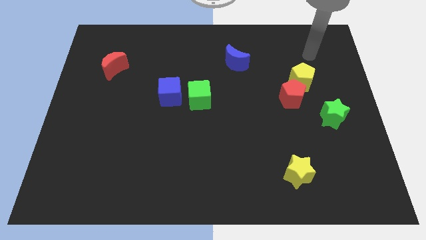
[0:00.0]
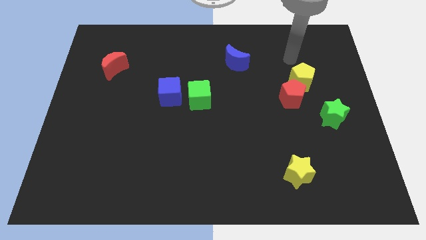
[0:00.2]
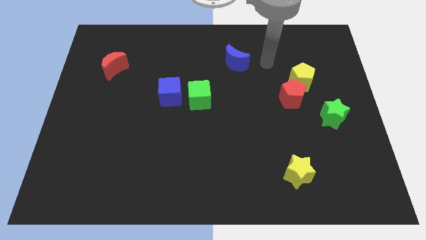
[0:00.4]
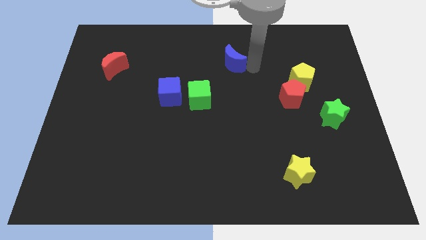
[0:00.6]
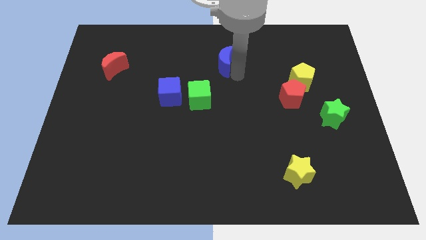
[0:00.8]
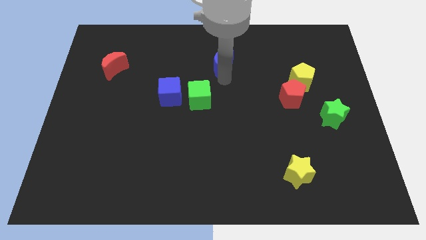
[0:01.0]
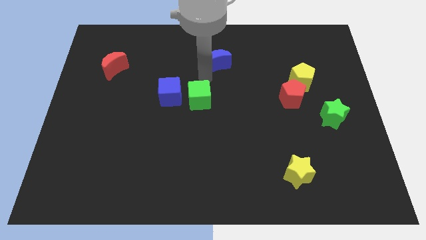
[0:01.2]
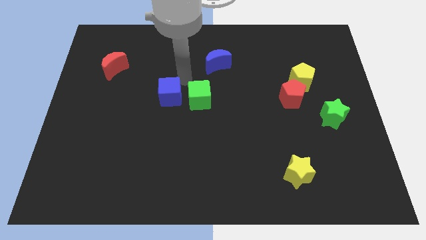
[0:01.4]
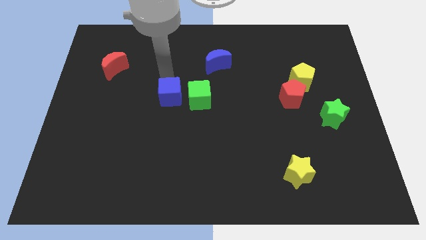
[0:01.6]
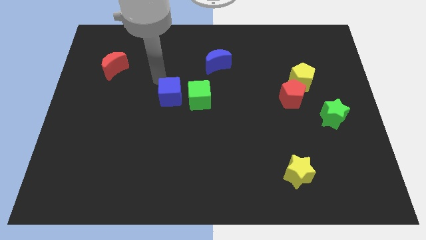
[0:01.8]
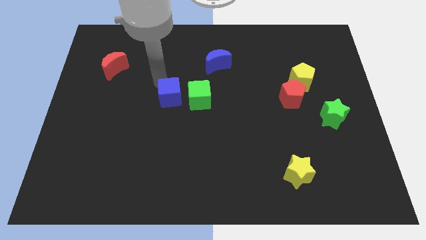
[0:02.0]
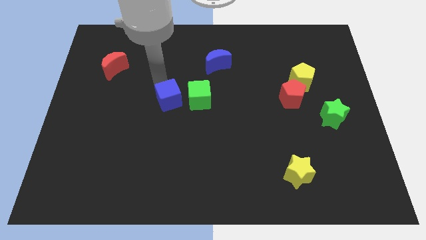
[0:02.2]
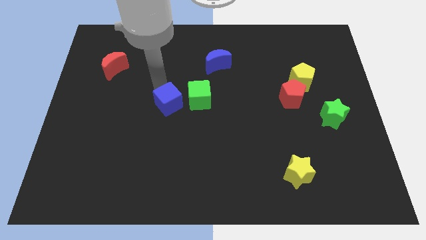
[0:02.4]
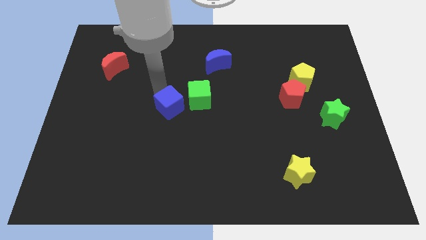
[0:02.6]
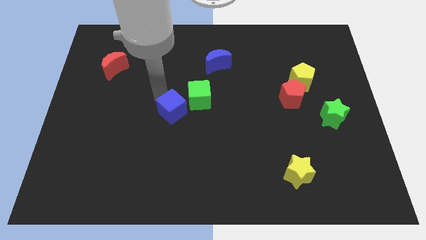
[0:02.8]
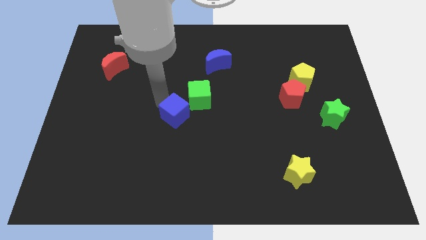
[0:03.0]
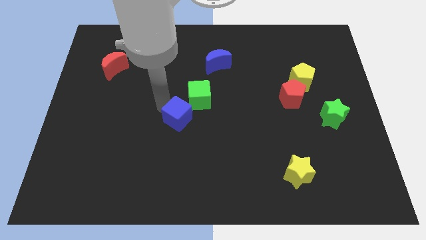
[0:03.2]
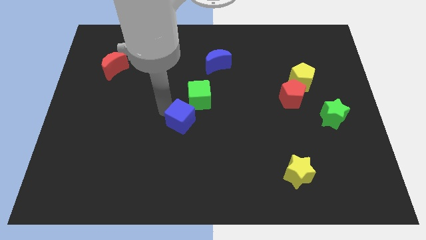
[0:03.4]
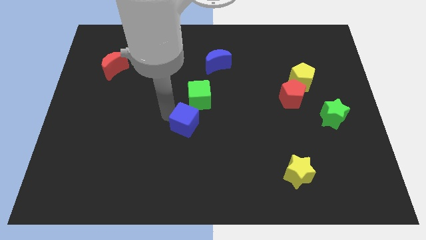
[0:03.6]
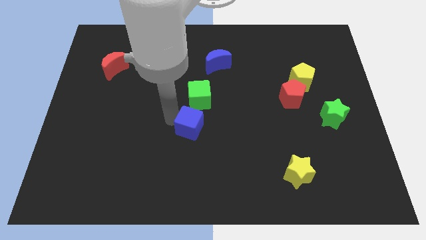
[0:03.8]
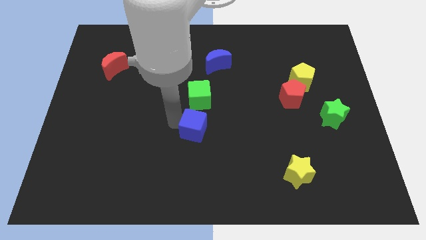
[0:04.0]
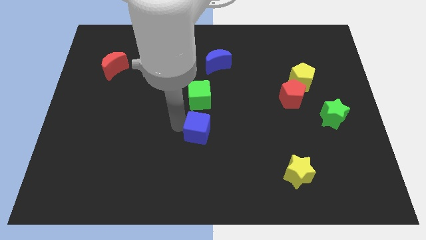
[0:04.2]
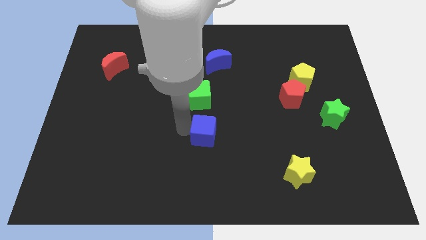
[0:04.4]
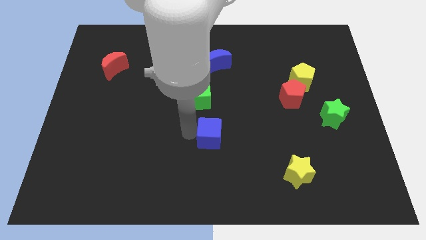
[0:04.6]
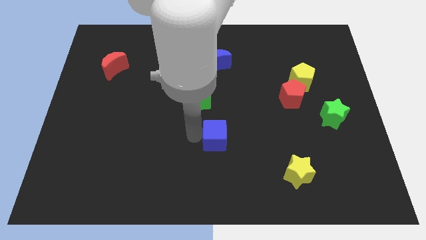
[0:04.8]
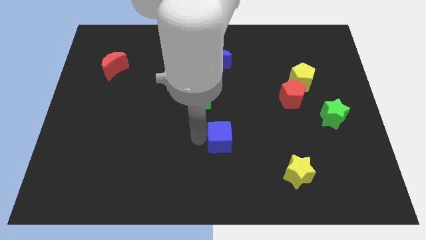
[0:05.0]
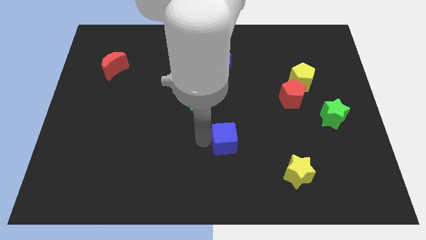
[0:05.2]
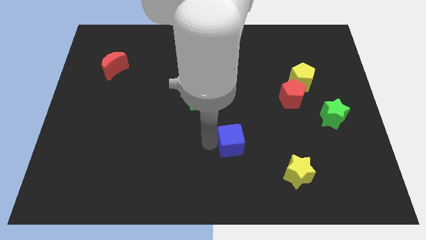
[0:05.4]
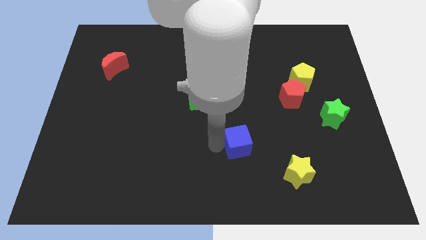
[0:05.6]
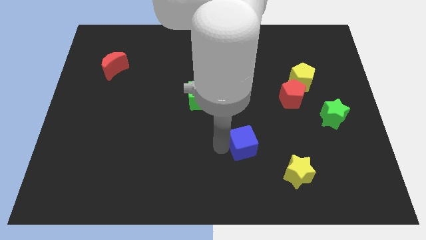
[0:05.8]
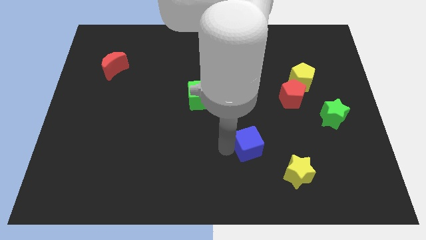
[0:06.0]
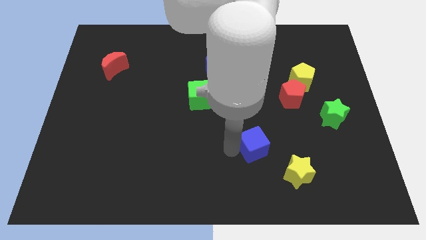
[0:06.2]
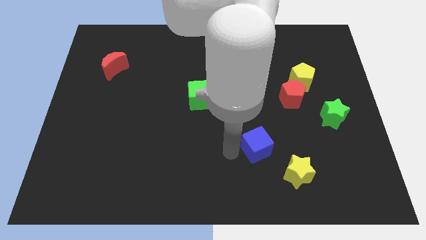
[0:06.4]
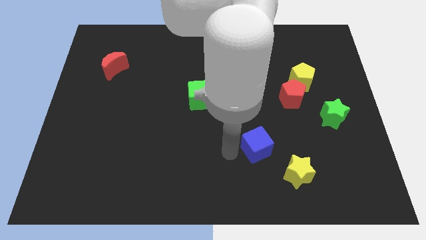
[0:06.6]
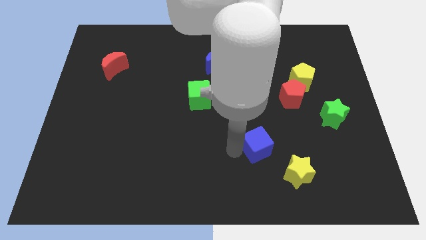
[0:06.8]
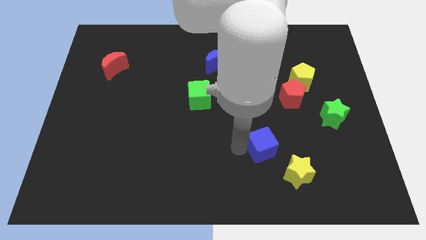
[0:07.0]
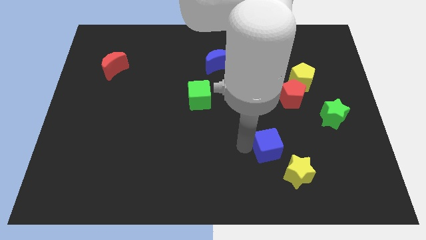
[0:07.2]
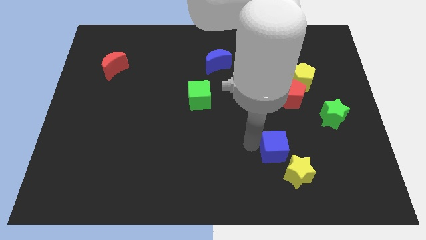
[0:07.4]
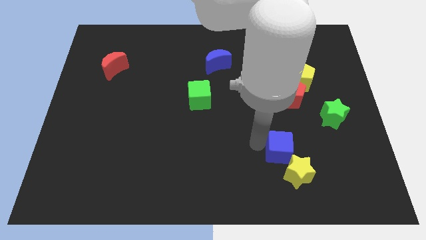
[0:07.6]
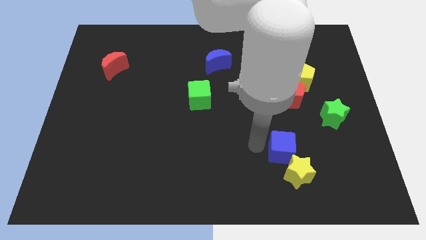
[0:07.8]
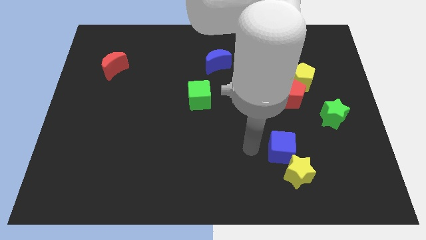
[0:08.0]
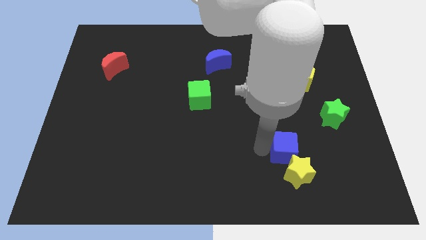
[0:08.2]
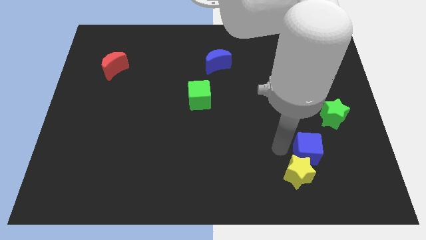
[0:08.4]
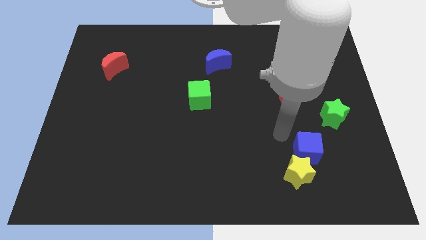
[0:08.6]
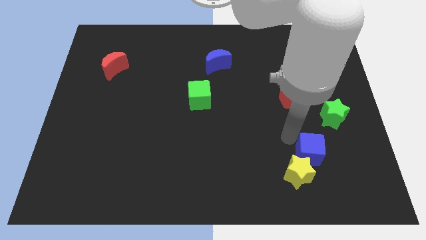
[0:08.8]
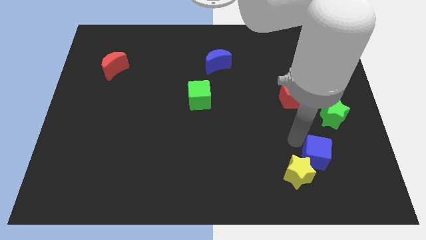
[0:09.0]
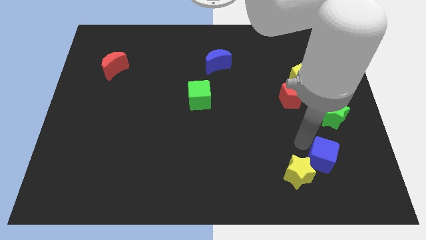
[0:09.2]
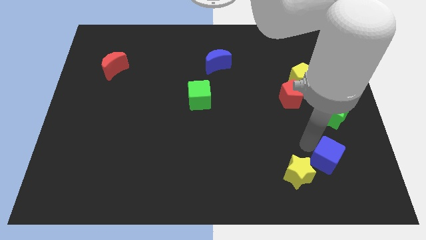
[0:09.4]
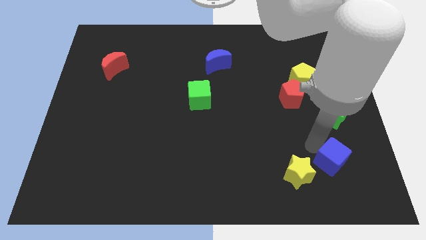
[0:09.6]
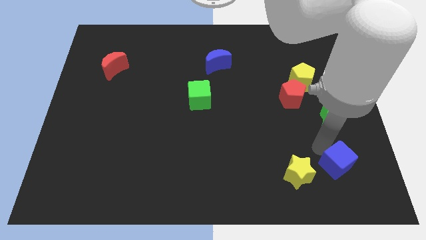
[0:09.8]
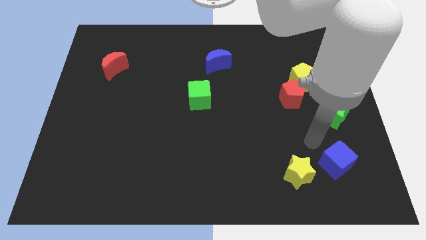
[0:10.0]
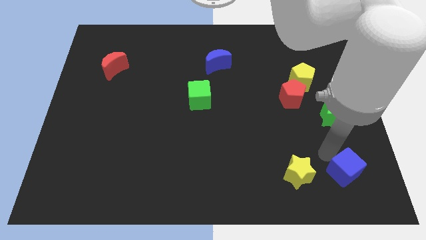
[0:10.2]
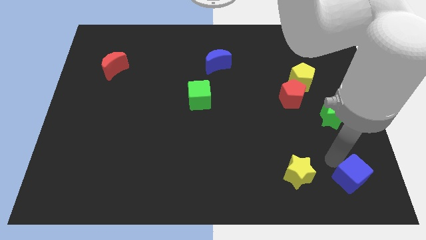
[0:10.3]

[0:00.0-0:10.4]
move the blue cube to the bottom right

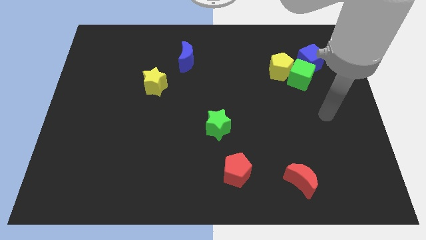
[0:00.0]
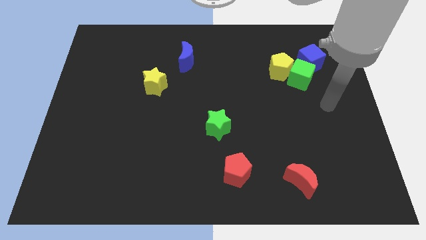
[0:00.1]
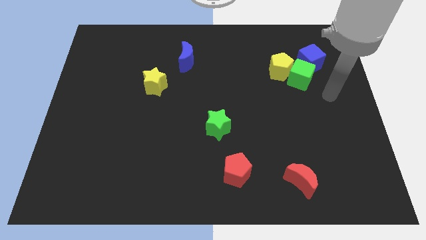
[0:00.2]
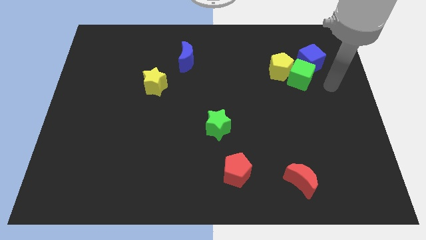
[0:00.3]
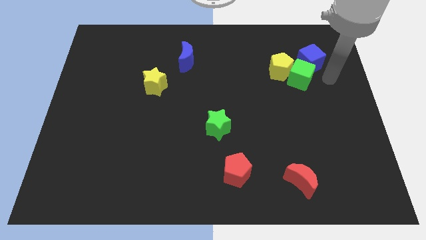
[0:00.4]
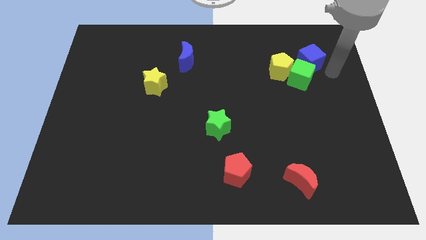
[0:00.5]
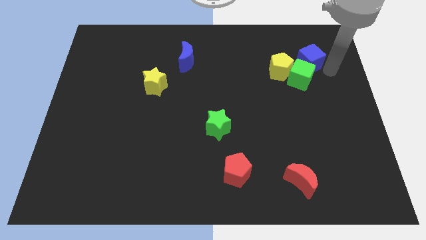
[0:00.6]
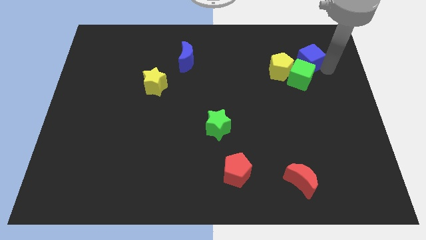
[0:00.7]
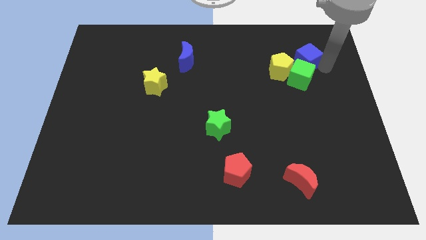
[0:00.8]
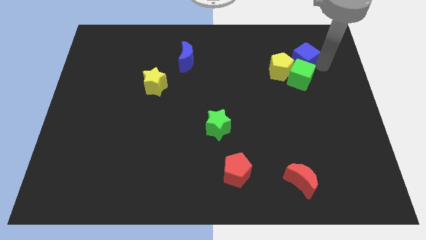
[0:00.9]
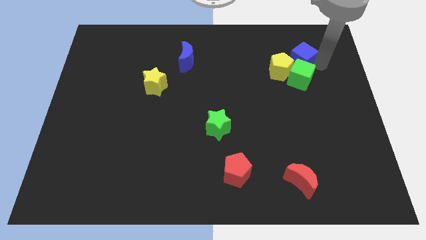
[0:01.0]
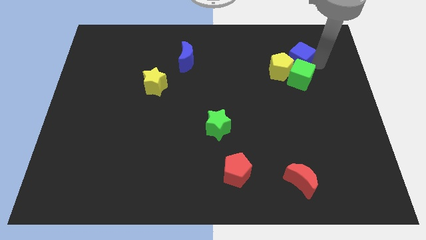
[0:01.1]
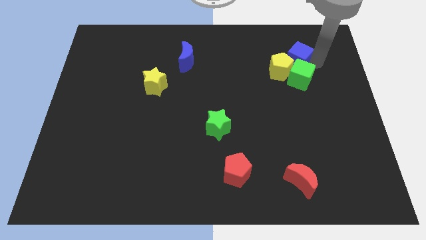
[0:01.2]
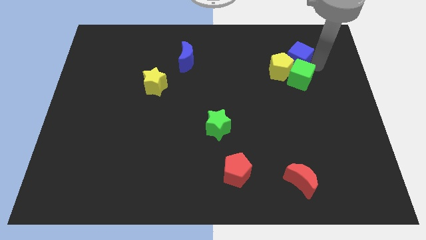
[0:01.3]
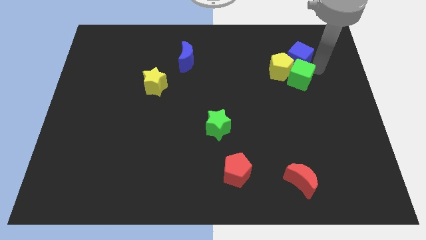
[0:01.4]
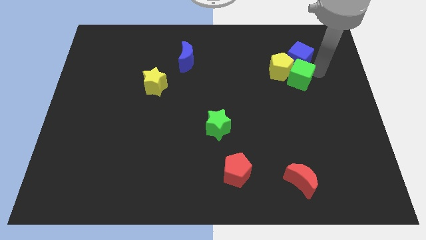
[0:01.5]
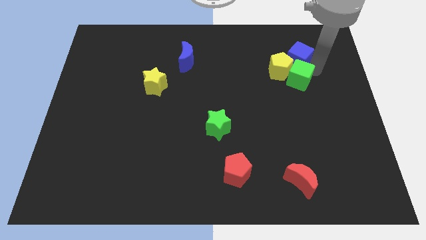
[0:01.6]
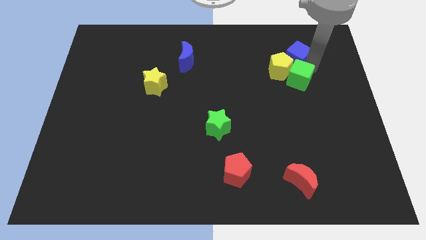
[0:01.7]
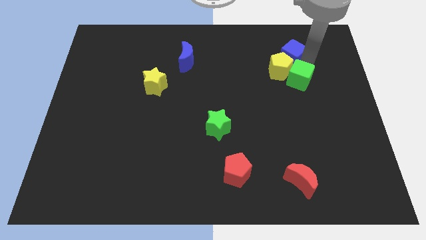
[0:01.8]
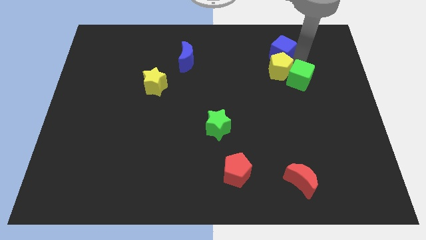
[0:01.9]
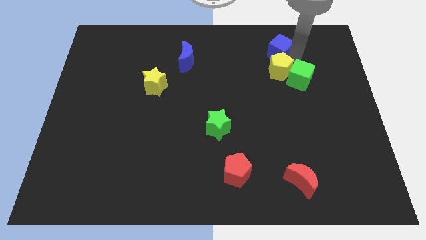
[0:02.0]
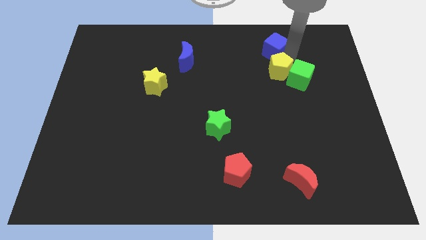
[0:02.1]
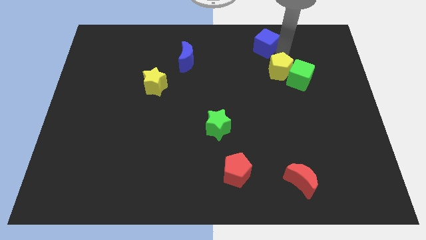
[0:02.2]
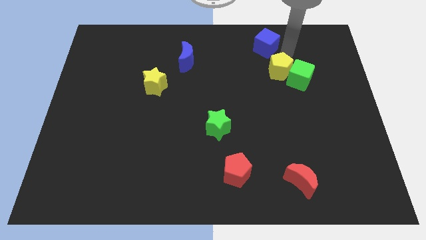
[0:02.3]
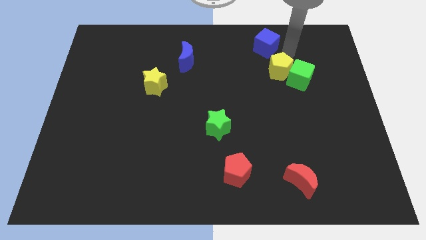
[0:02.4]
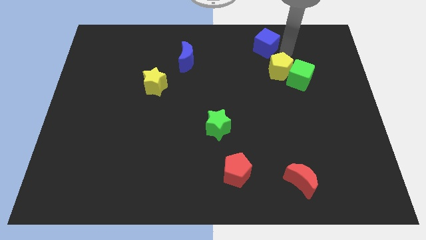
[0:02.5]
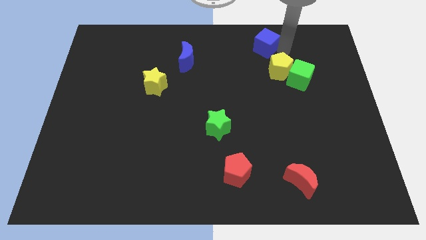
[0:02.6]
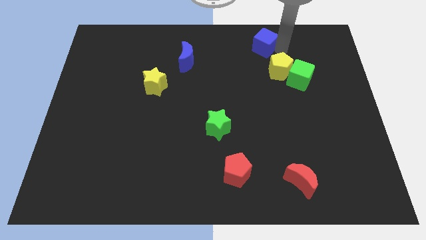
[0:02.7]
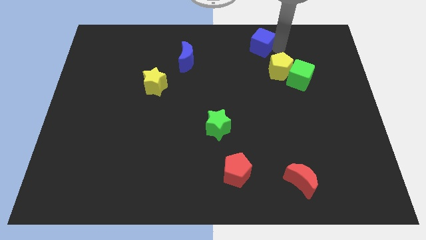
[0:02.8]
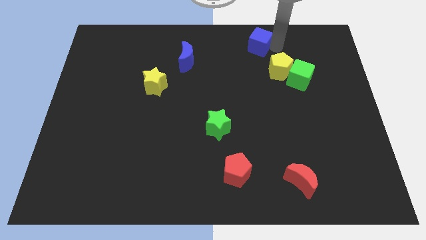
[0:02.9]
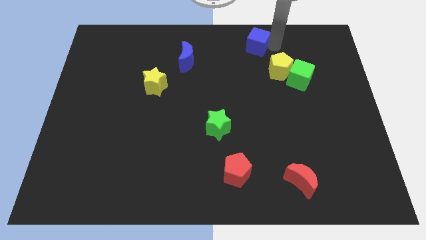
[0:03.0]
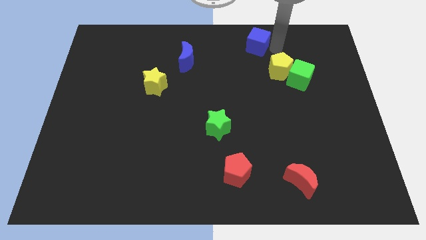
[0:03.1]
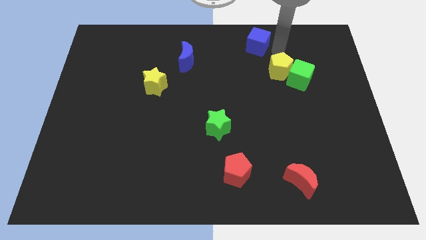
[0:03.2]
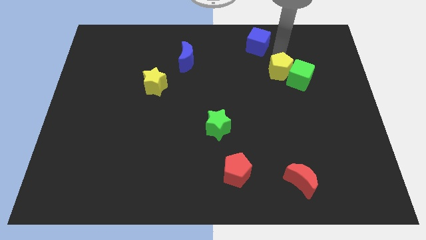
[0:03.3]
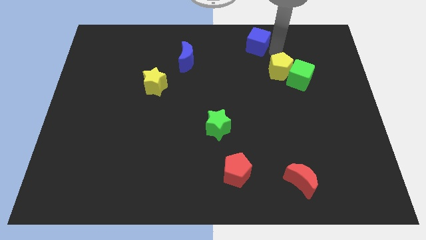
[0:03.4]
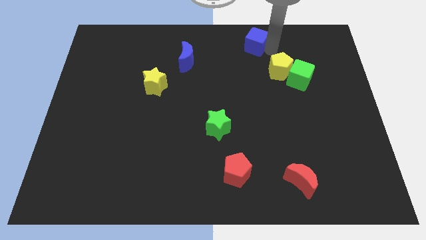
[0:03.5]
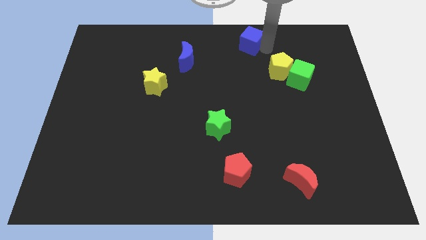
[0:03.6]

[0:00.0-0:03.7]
push the blue cube to the top side
